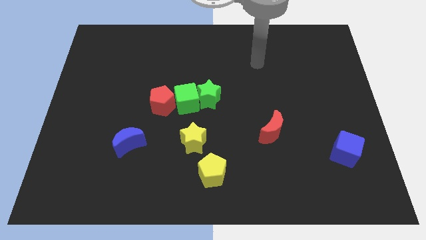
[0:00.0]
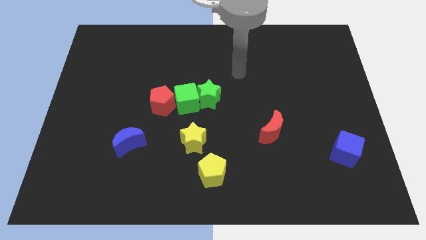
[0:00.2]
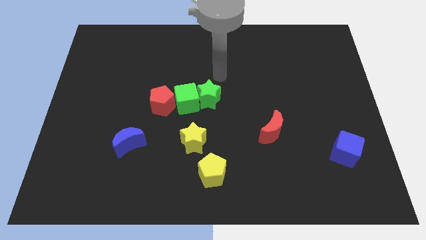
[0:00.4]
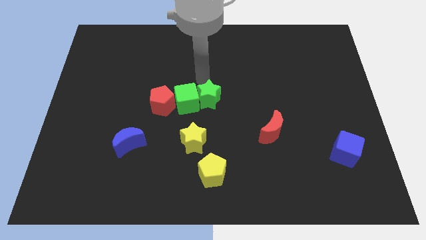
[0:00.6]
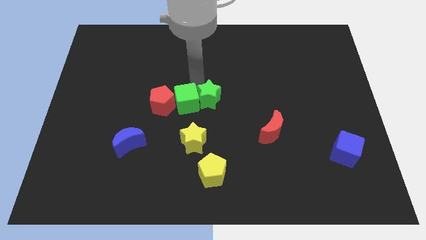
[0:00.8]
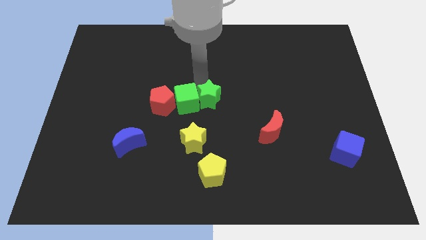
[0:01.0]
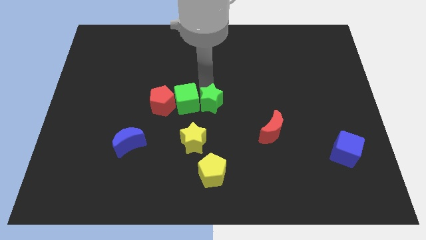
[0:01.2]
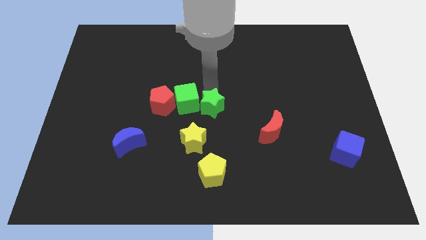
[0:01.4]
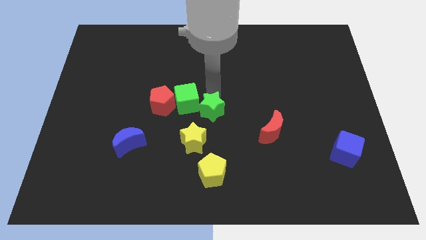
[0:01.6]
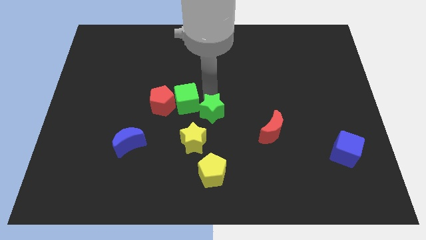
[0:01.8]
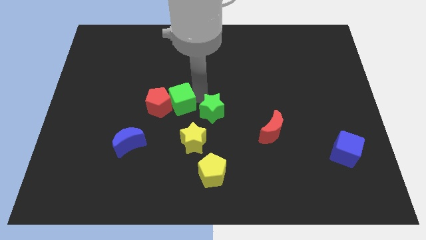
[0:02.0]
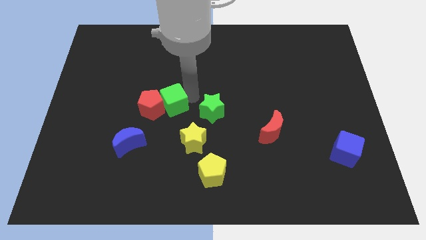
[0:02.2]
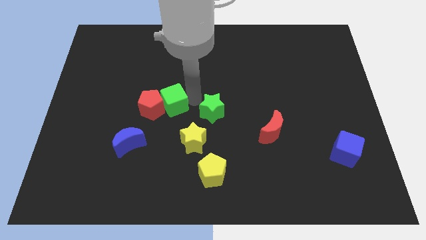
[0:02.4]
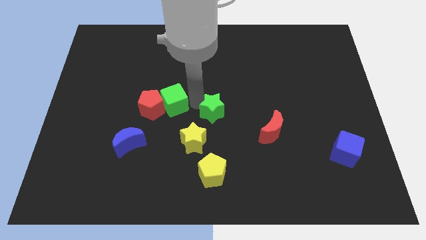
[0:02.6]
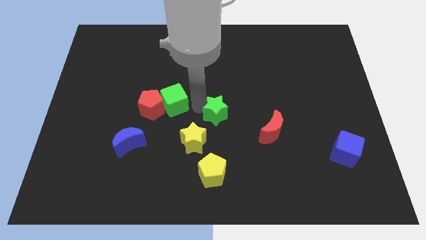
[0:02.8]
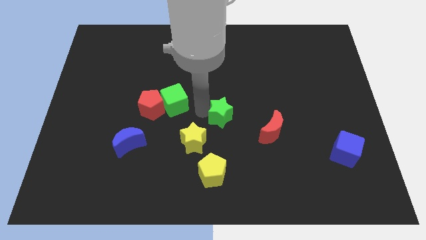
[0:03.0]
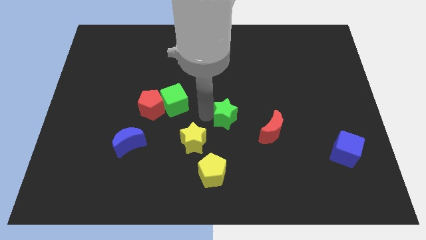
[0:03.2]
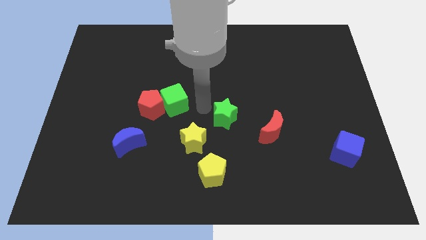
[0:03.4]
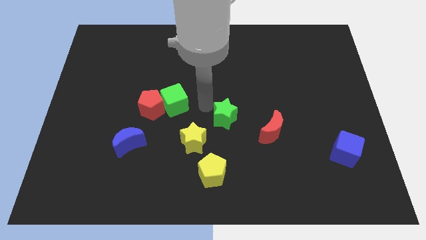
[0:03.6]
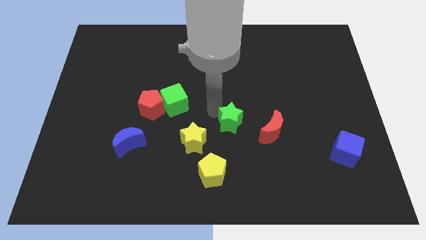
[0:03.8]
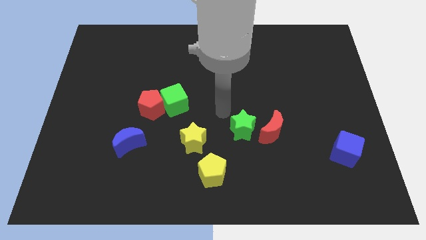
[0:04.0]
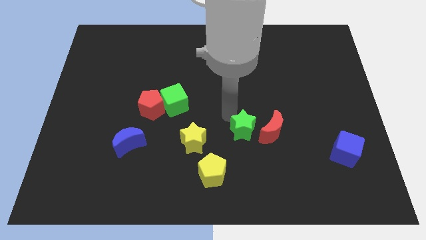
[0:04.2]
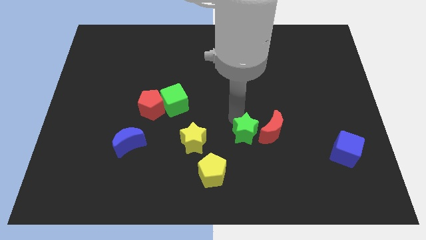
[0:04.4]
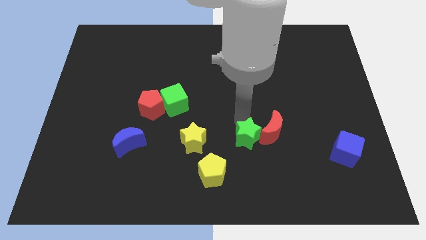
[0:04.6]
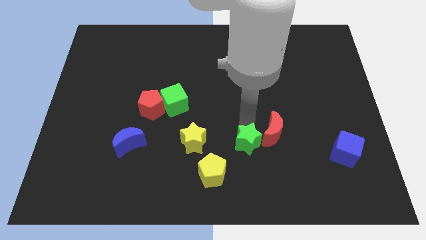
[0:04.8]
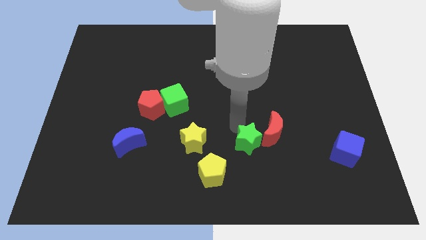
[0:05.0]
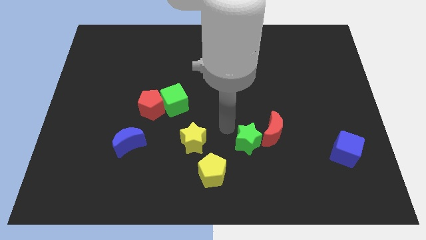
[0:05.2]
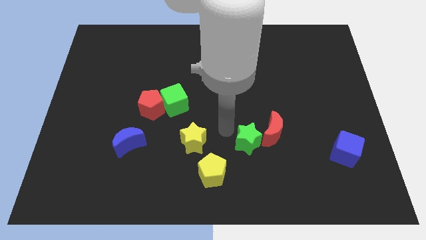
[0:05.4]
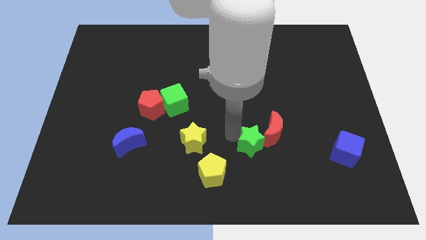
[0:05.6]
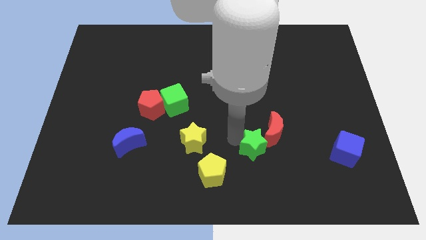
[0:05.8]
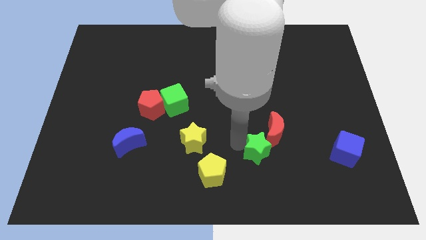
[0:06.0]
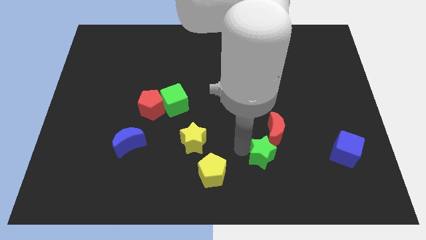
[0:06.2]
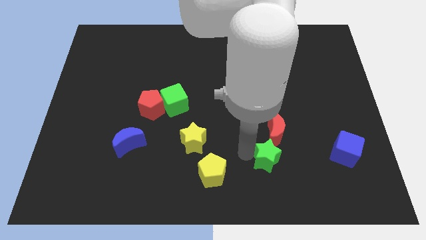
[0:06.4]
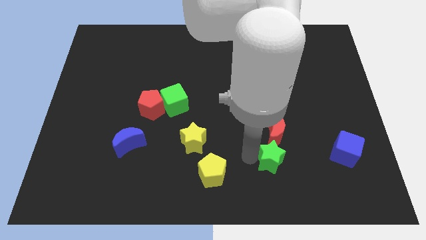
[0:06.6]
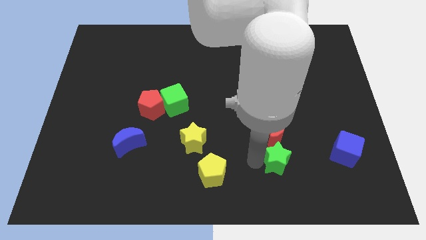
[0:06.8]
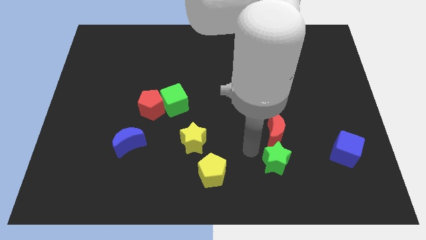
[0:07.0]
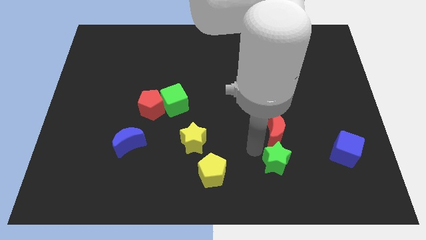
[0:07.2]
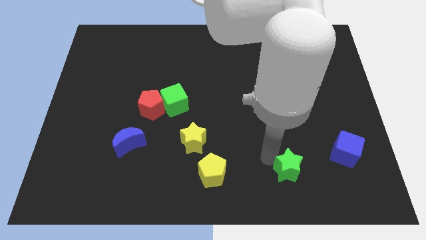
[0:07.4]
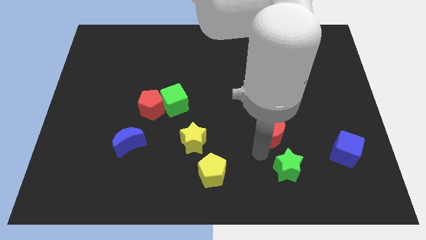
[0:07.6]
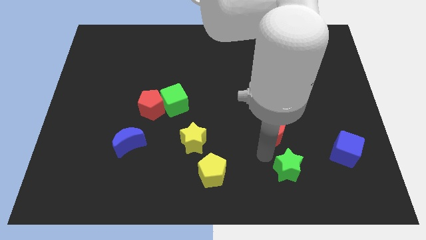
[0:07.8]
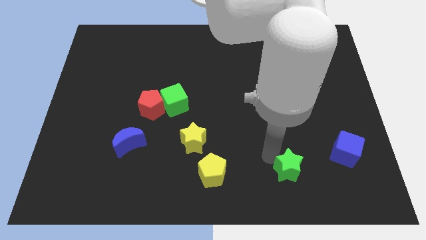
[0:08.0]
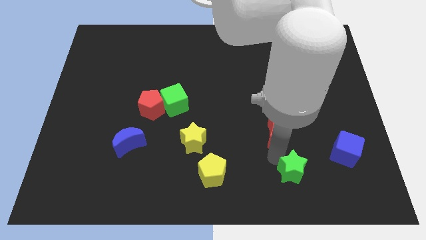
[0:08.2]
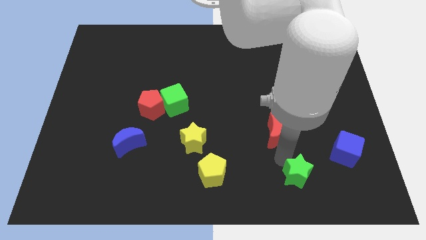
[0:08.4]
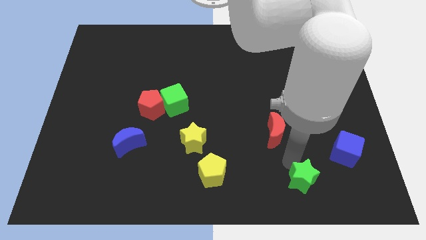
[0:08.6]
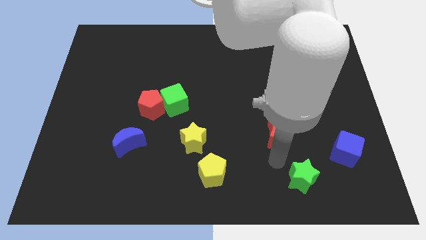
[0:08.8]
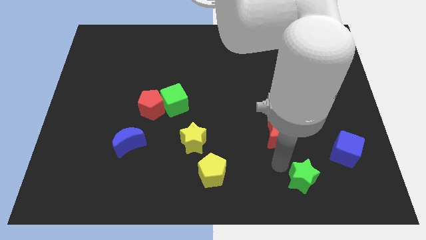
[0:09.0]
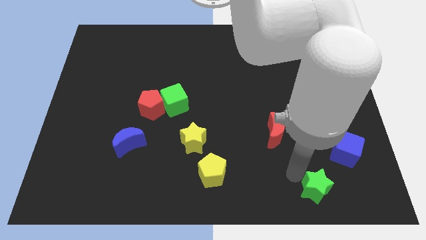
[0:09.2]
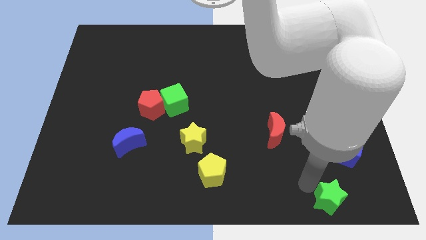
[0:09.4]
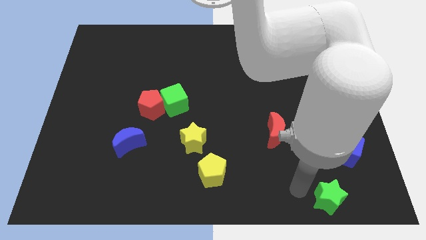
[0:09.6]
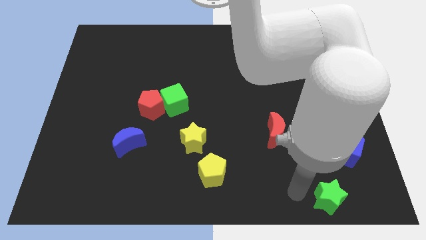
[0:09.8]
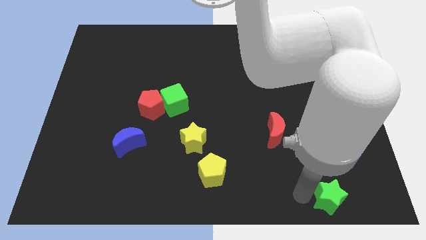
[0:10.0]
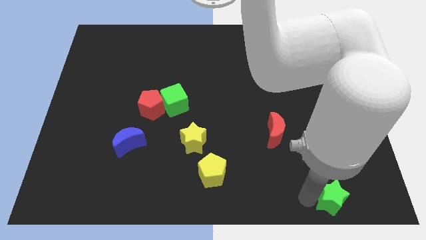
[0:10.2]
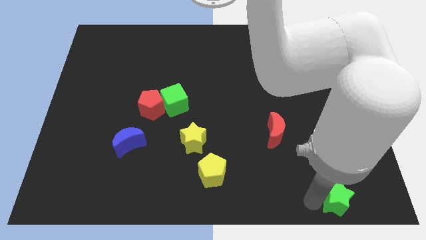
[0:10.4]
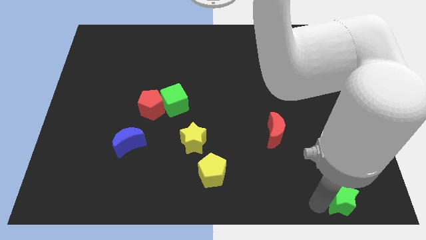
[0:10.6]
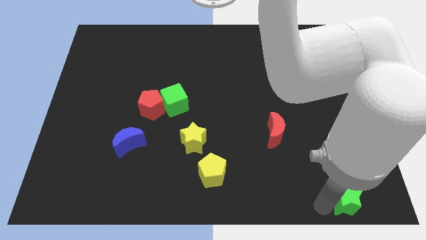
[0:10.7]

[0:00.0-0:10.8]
put the green star to the bottom right corner

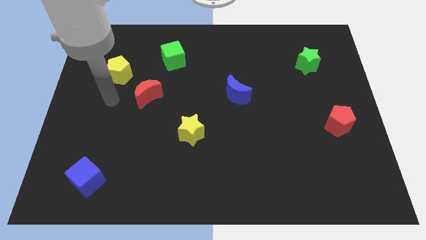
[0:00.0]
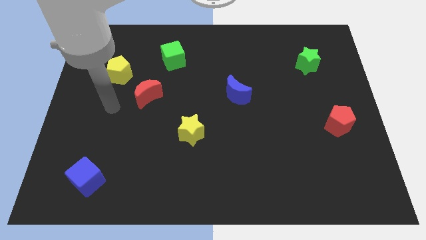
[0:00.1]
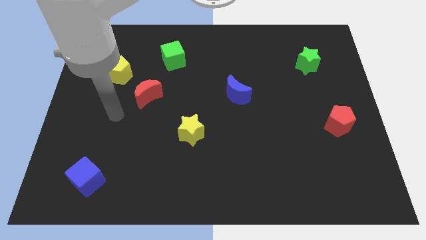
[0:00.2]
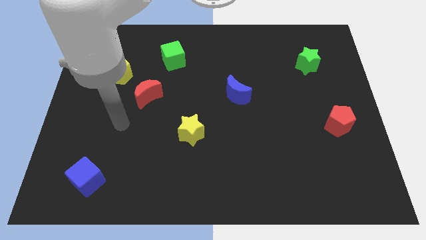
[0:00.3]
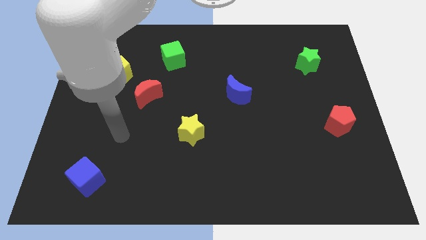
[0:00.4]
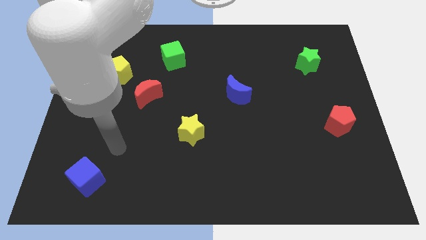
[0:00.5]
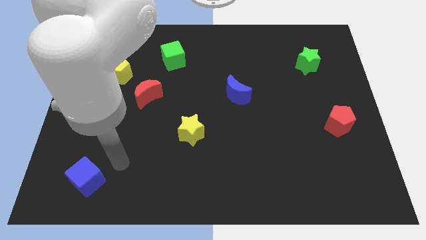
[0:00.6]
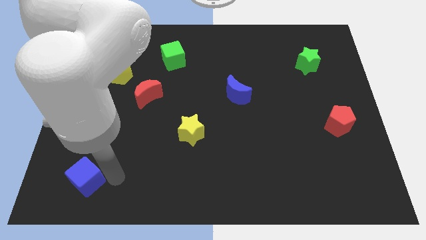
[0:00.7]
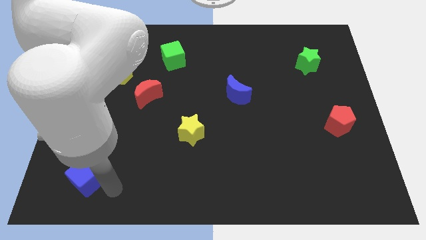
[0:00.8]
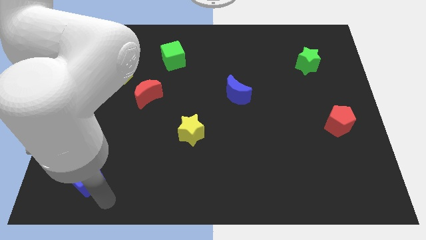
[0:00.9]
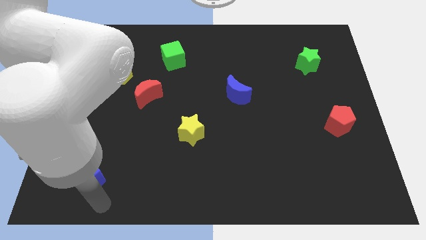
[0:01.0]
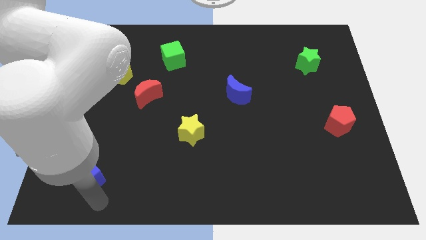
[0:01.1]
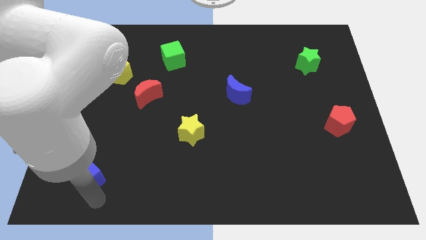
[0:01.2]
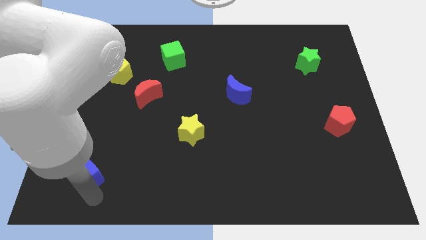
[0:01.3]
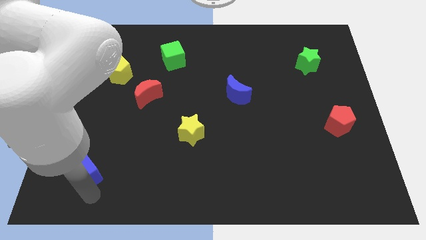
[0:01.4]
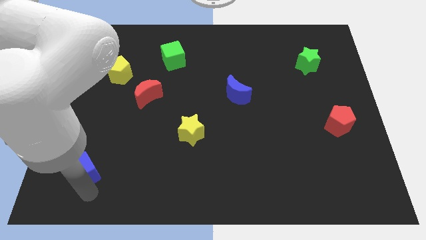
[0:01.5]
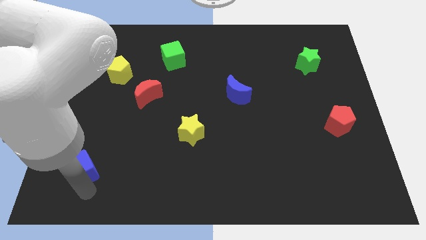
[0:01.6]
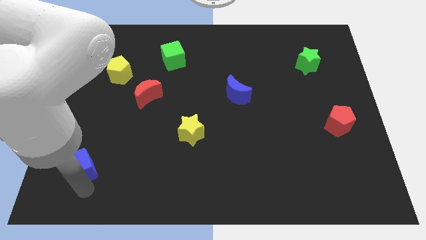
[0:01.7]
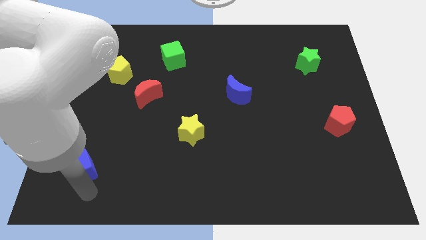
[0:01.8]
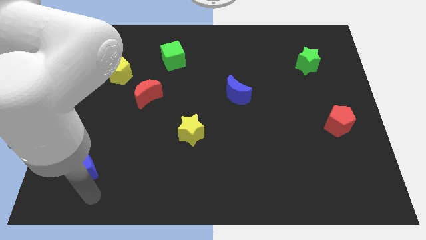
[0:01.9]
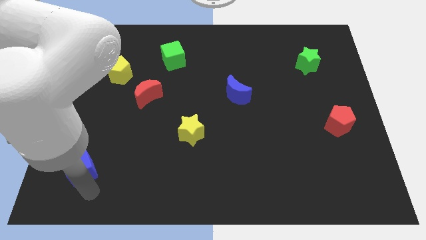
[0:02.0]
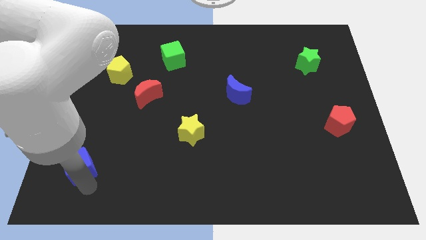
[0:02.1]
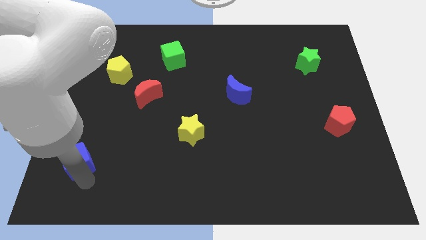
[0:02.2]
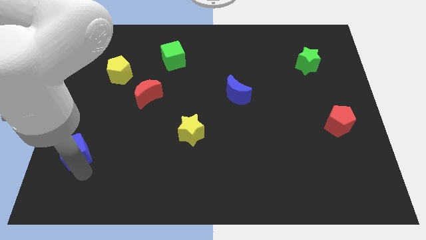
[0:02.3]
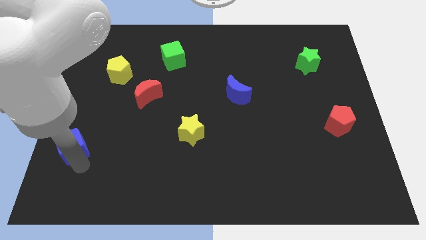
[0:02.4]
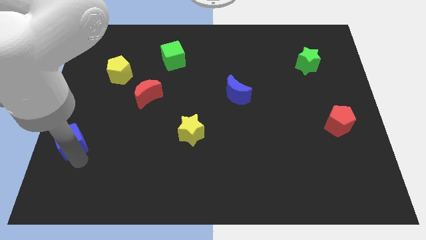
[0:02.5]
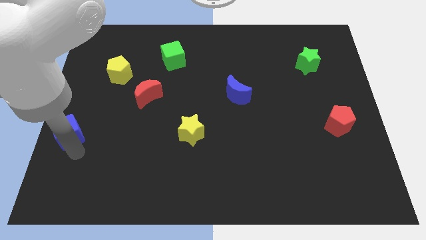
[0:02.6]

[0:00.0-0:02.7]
put the blue cube to the left side
